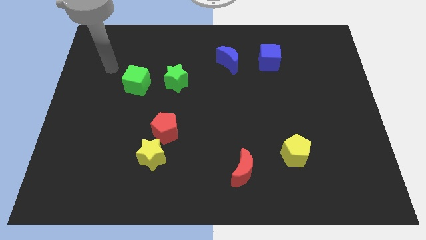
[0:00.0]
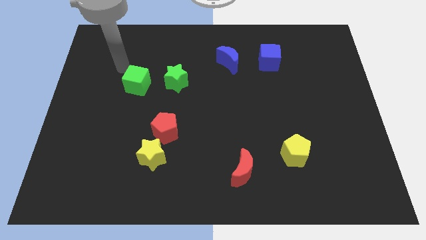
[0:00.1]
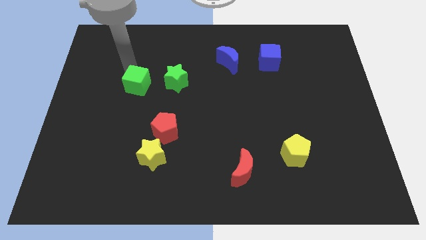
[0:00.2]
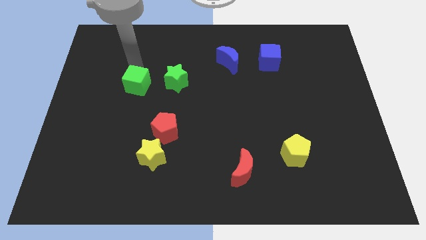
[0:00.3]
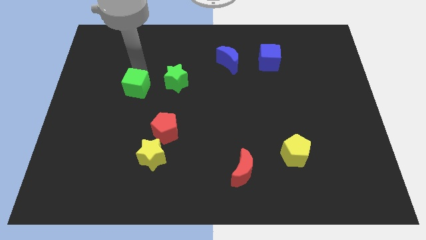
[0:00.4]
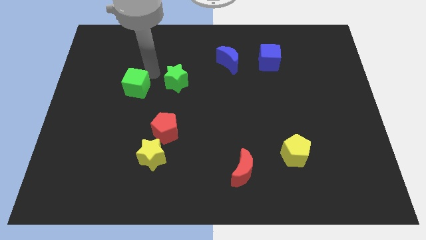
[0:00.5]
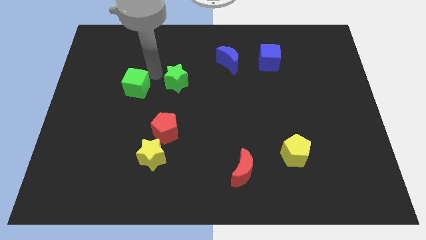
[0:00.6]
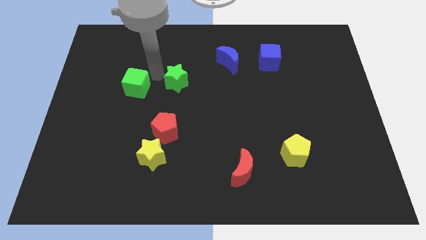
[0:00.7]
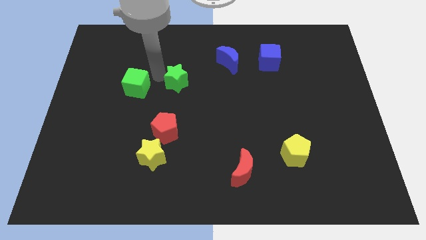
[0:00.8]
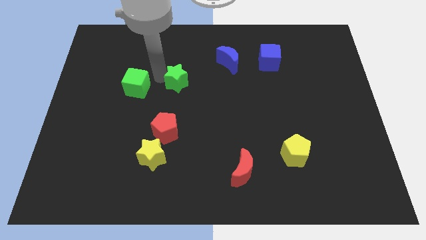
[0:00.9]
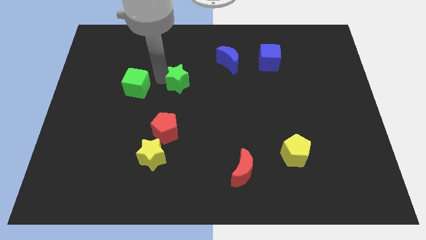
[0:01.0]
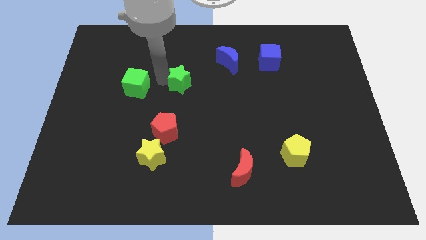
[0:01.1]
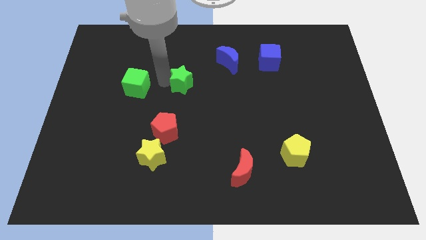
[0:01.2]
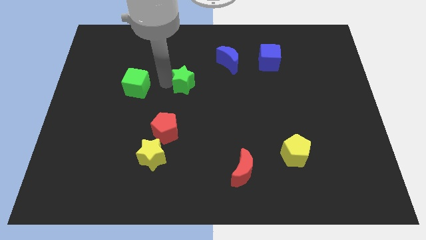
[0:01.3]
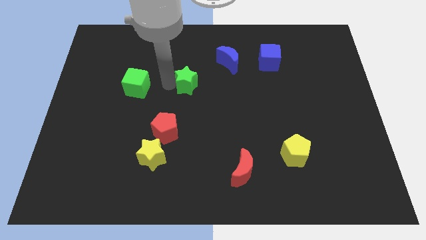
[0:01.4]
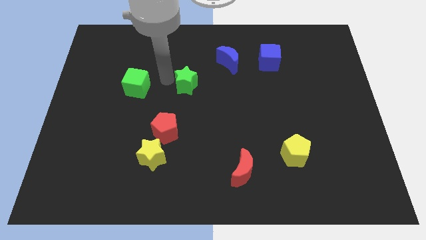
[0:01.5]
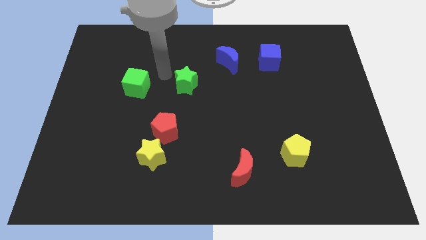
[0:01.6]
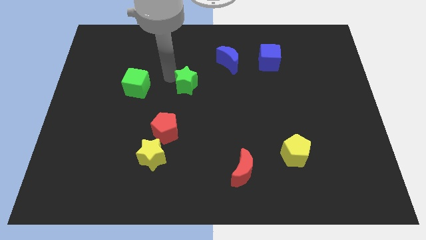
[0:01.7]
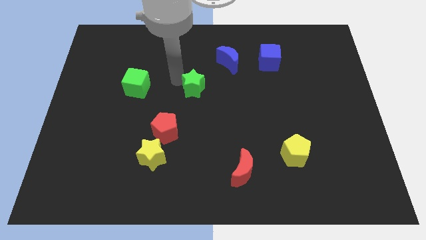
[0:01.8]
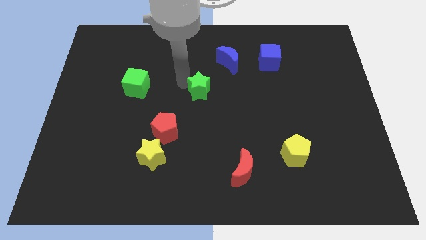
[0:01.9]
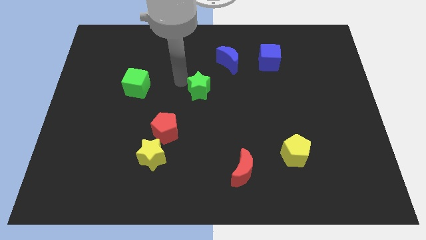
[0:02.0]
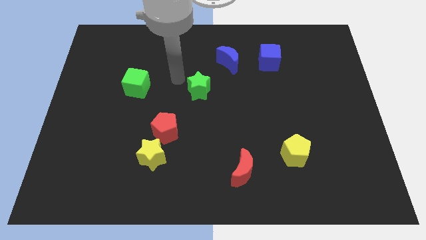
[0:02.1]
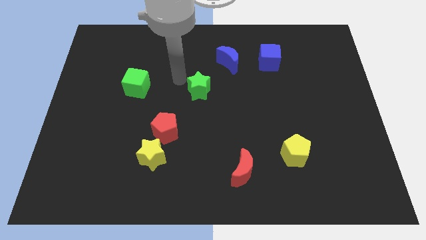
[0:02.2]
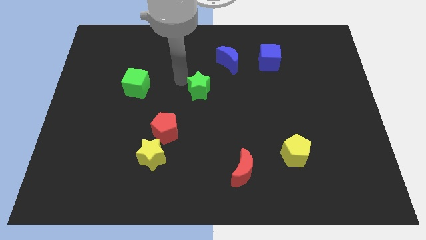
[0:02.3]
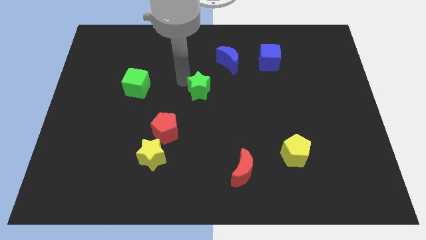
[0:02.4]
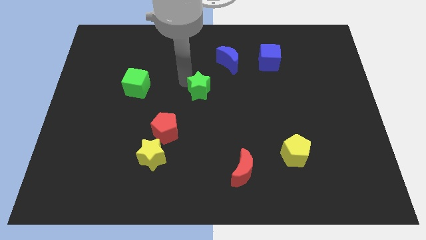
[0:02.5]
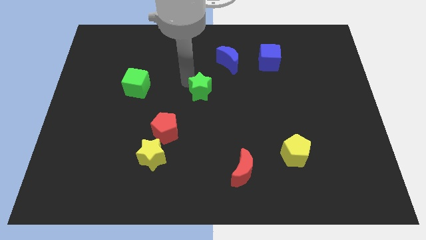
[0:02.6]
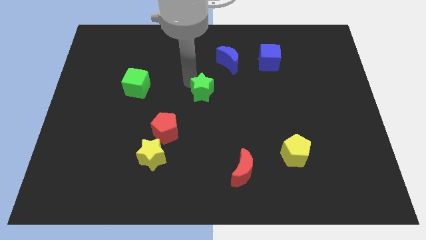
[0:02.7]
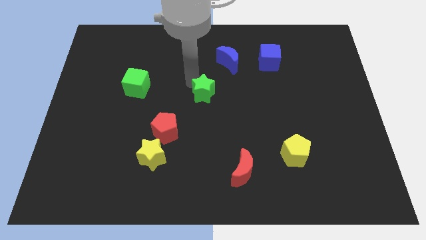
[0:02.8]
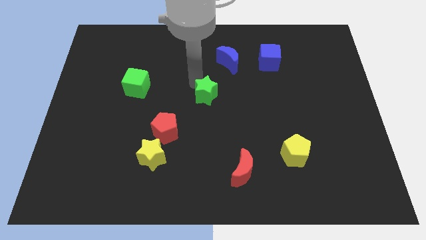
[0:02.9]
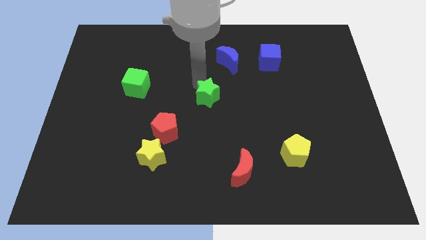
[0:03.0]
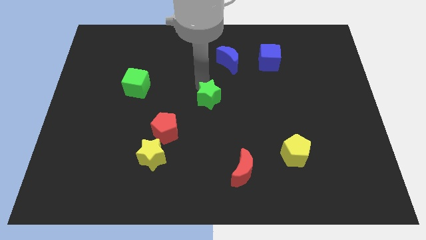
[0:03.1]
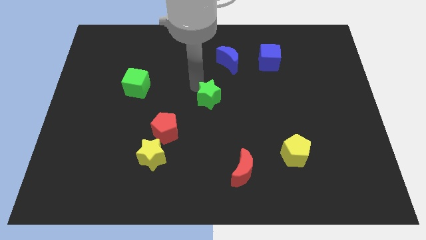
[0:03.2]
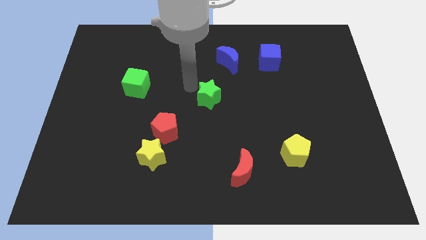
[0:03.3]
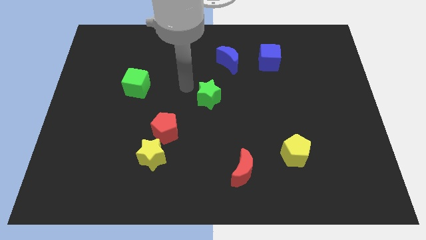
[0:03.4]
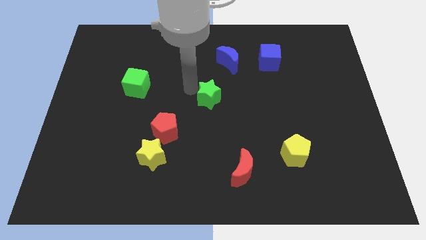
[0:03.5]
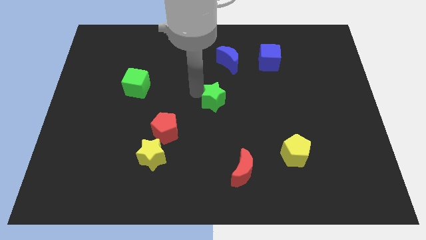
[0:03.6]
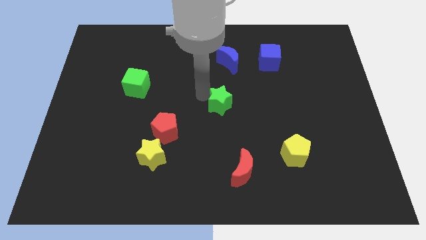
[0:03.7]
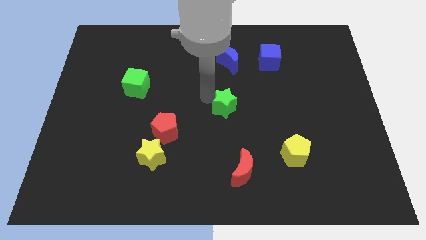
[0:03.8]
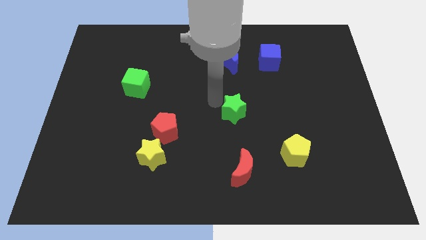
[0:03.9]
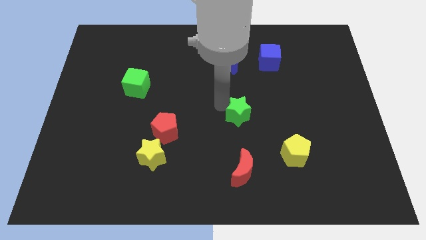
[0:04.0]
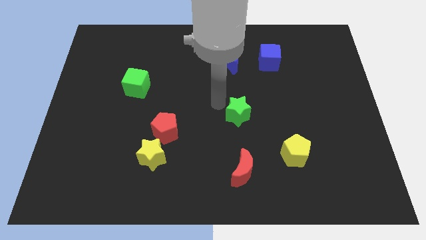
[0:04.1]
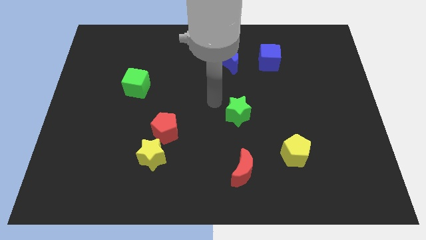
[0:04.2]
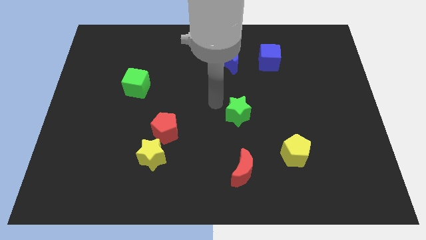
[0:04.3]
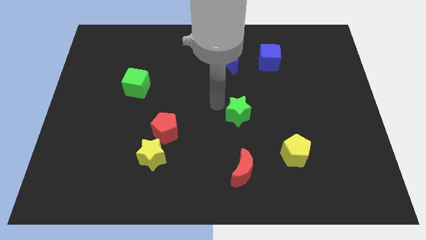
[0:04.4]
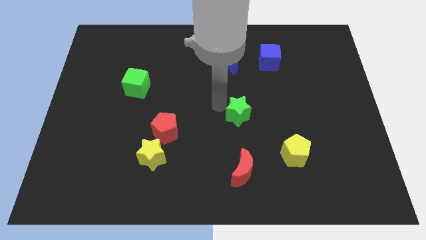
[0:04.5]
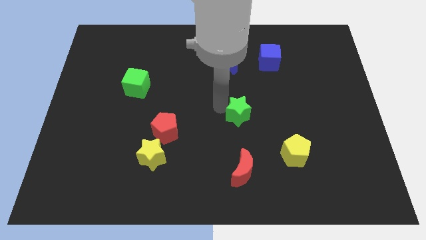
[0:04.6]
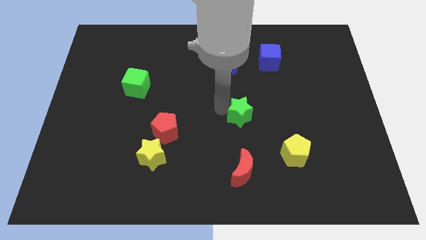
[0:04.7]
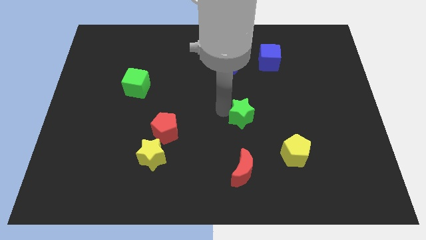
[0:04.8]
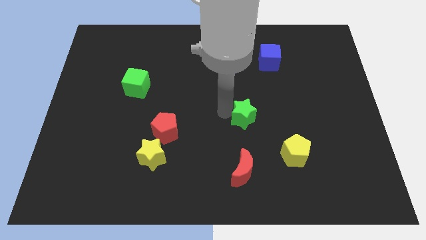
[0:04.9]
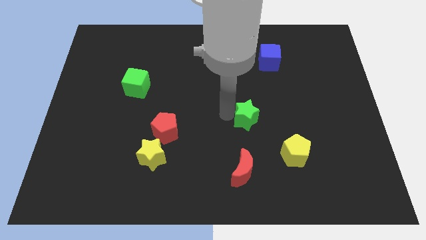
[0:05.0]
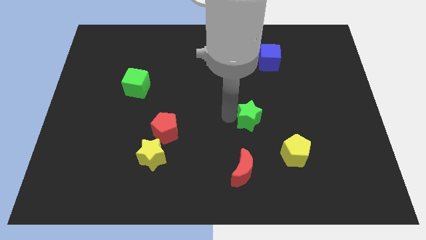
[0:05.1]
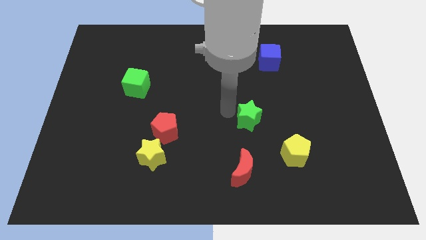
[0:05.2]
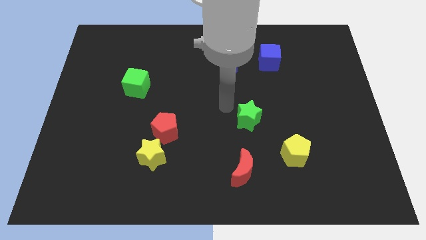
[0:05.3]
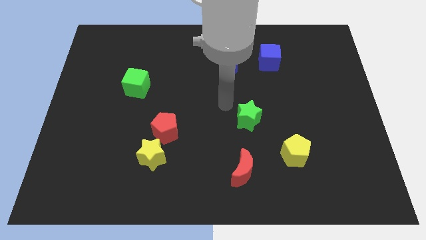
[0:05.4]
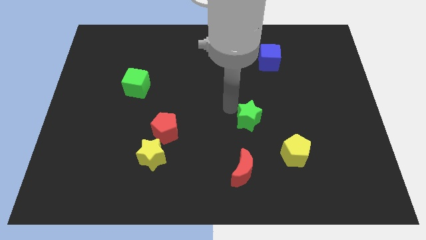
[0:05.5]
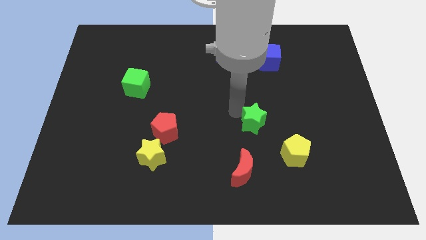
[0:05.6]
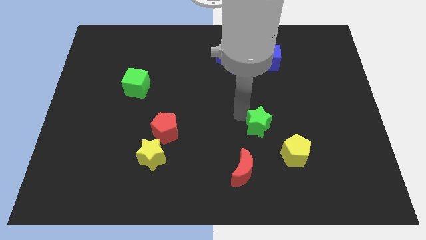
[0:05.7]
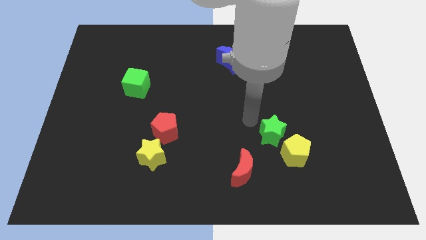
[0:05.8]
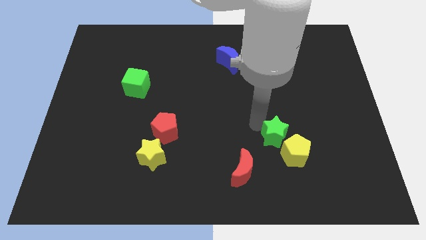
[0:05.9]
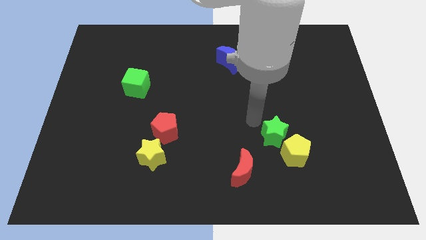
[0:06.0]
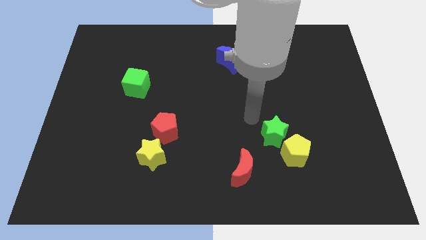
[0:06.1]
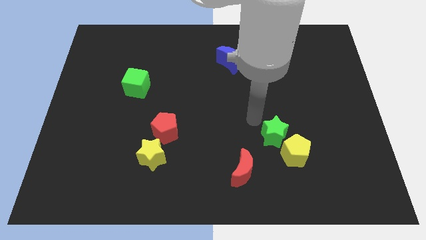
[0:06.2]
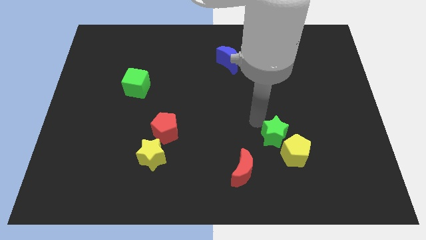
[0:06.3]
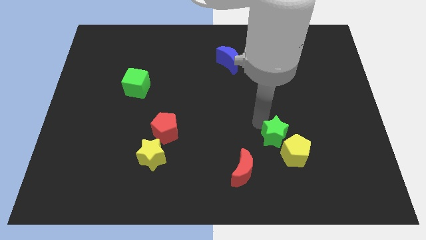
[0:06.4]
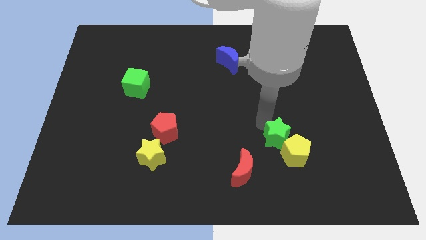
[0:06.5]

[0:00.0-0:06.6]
slide the green star close to the yellow pentagon

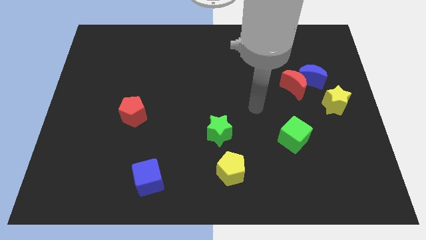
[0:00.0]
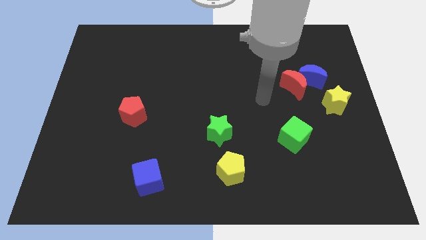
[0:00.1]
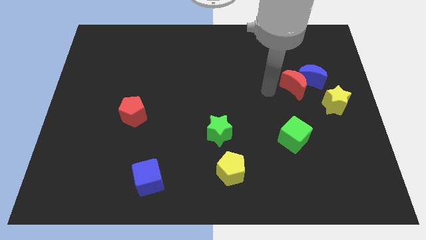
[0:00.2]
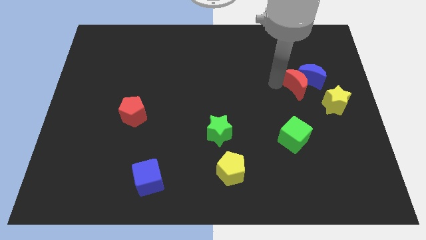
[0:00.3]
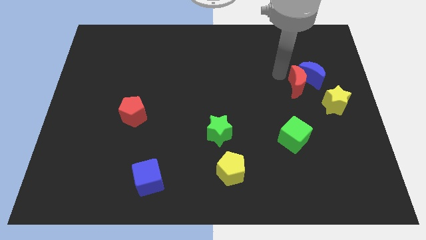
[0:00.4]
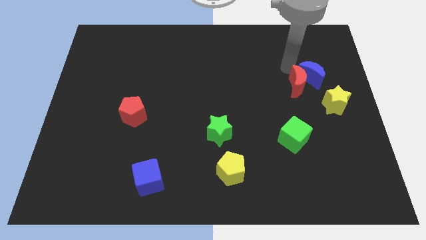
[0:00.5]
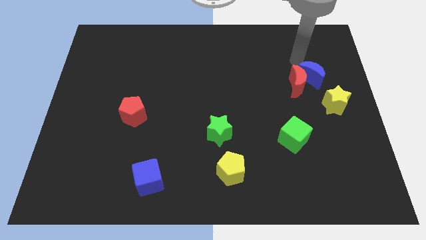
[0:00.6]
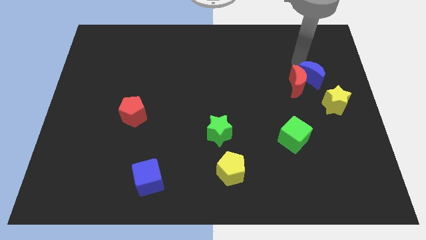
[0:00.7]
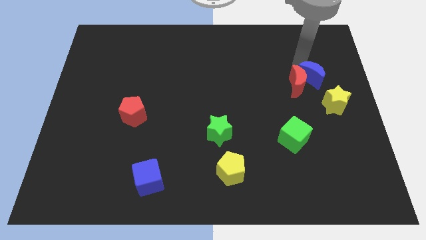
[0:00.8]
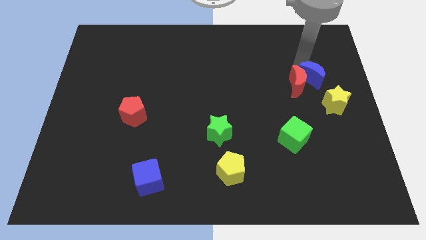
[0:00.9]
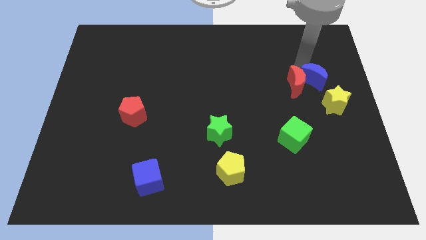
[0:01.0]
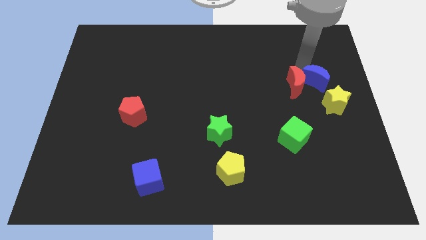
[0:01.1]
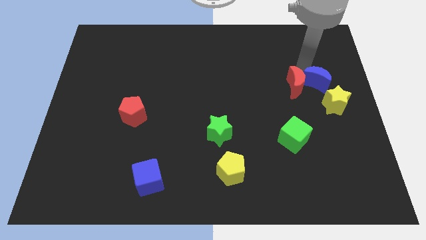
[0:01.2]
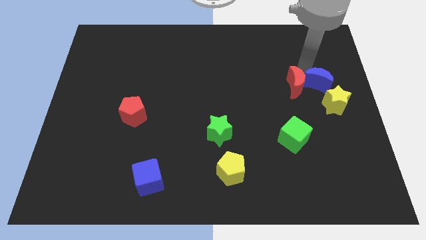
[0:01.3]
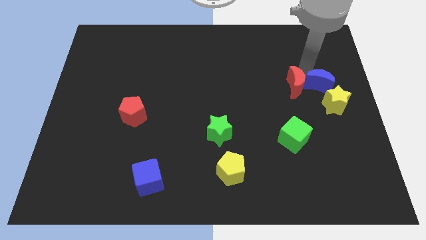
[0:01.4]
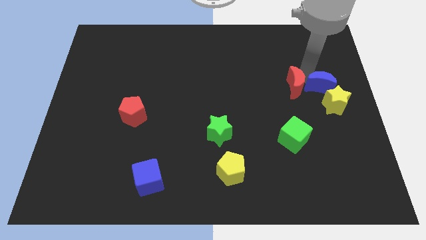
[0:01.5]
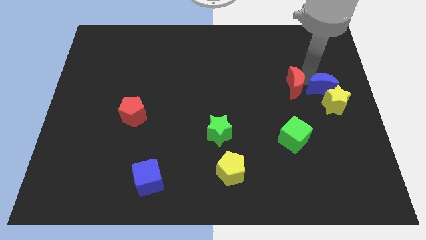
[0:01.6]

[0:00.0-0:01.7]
put the blue moon close to the yellow star
